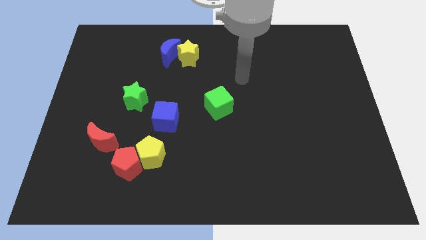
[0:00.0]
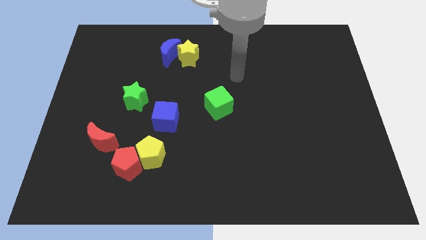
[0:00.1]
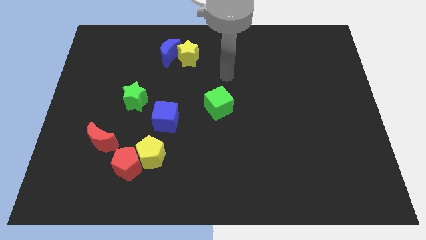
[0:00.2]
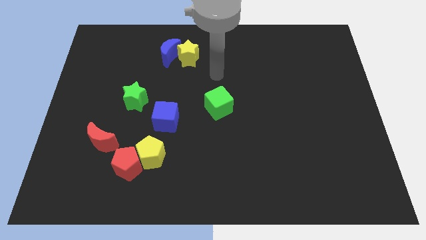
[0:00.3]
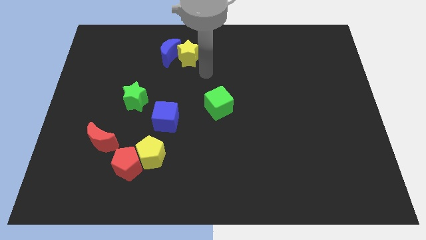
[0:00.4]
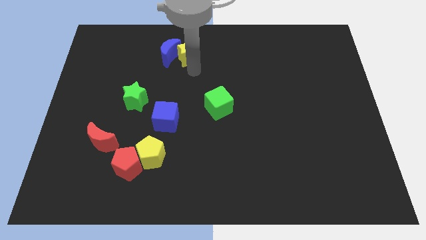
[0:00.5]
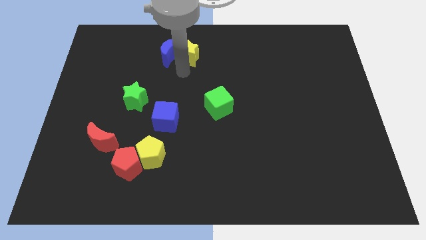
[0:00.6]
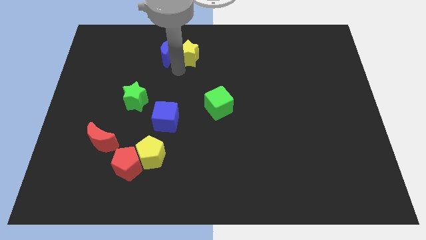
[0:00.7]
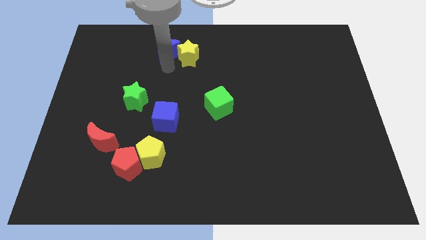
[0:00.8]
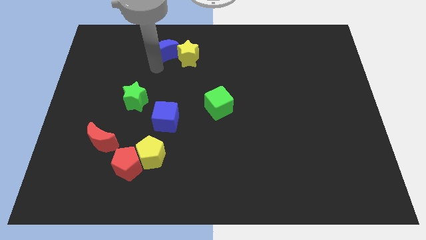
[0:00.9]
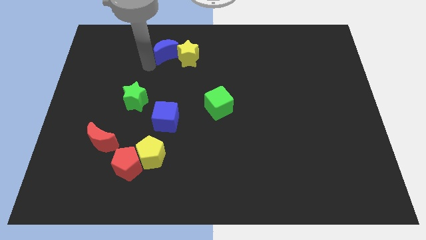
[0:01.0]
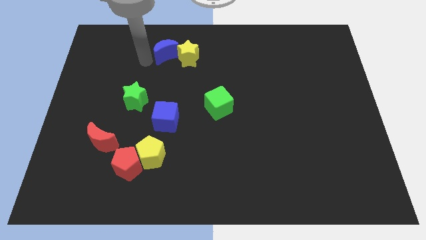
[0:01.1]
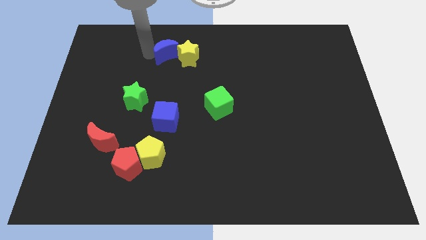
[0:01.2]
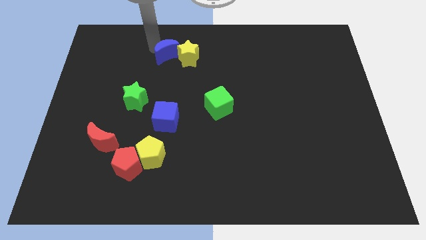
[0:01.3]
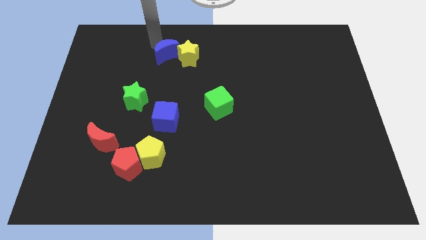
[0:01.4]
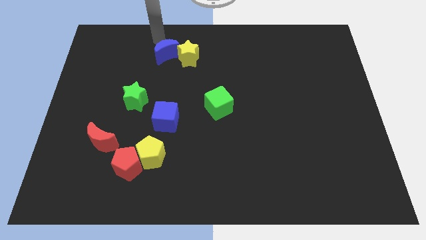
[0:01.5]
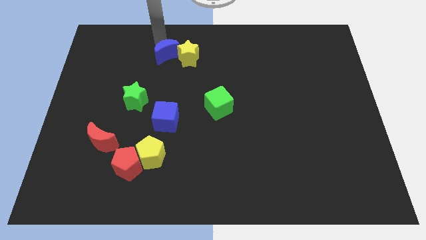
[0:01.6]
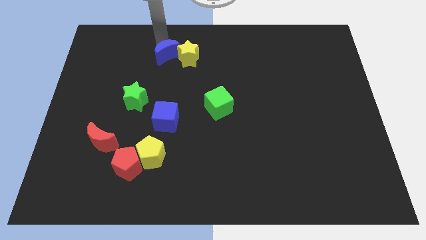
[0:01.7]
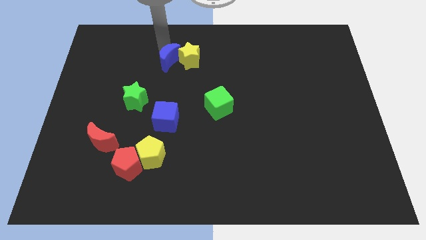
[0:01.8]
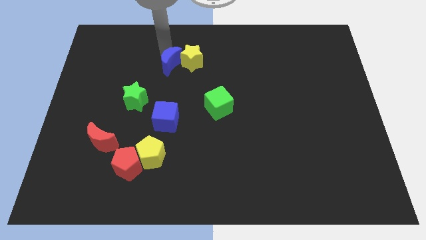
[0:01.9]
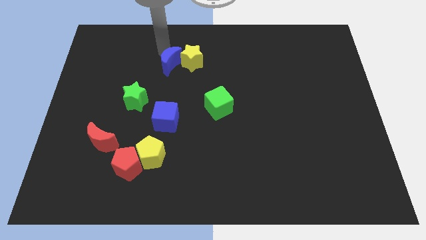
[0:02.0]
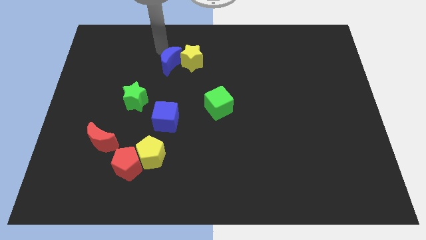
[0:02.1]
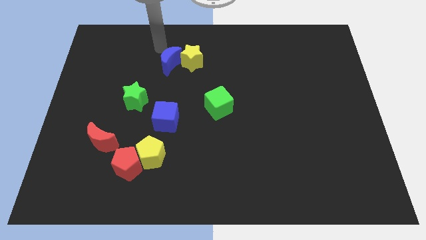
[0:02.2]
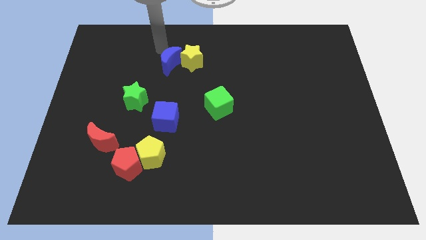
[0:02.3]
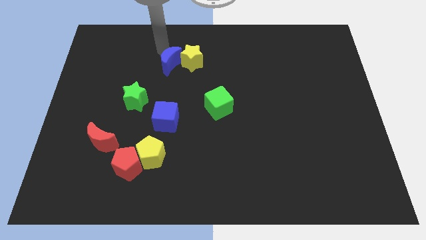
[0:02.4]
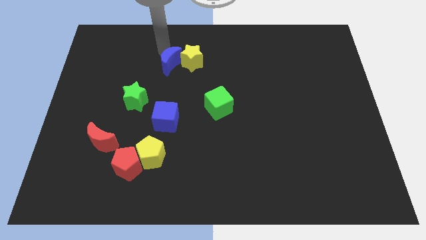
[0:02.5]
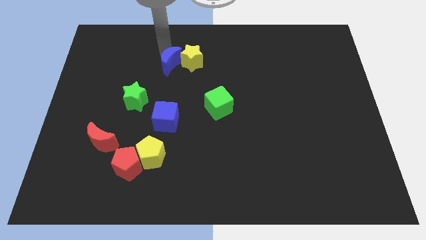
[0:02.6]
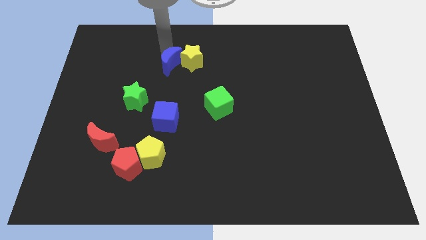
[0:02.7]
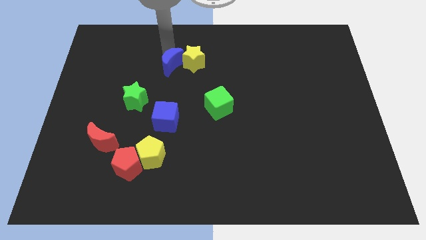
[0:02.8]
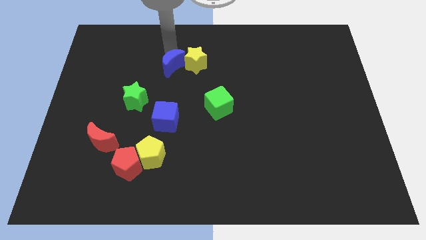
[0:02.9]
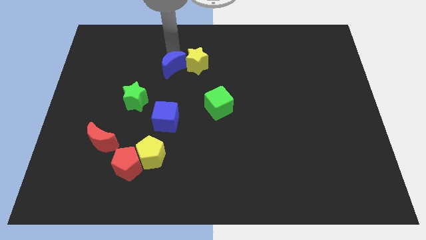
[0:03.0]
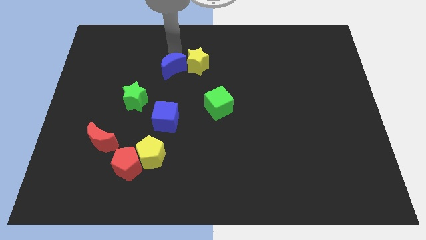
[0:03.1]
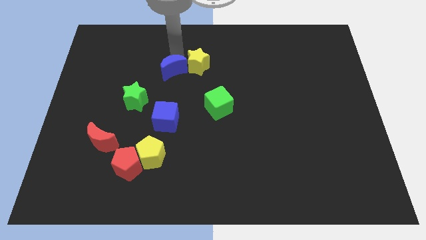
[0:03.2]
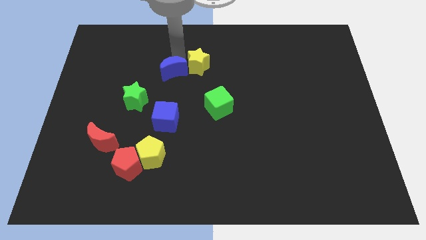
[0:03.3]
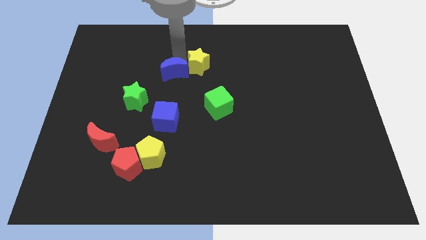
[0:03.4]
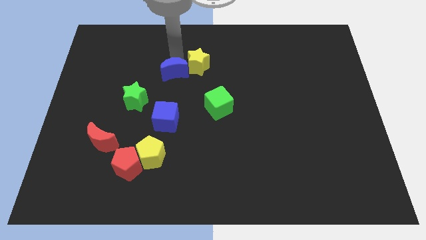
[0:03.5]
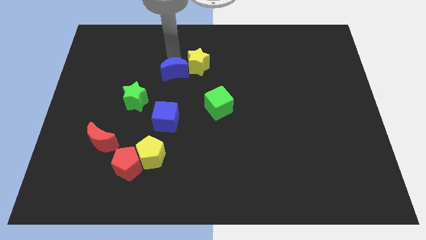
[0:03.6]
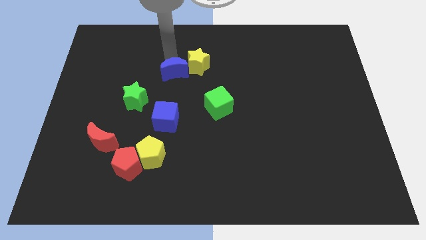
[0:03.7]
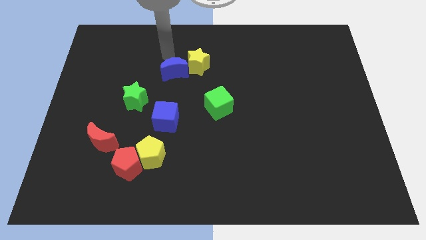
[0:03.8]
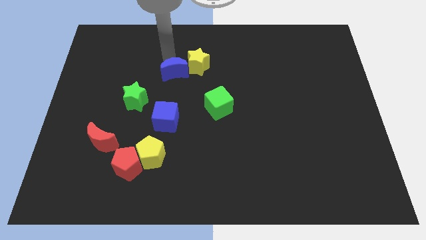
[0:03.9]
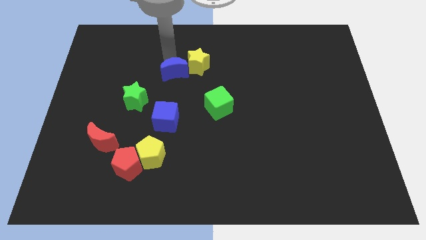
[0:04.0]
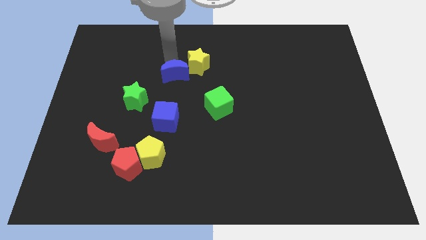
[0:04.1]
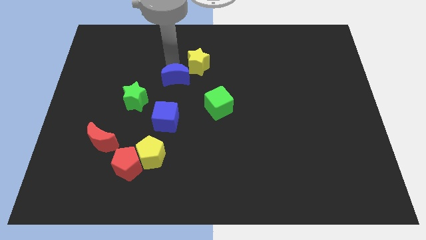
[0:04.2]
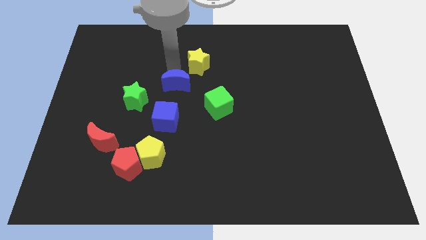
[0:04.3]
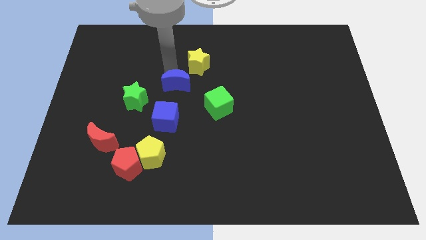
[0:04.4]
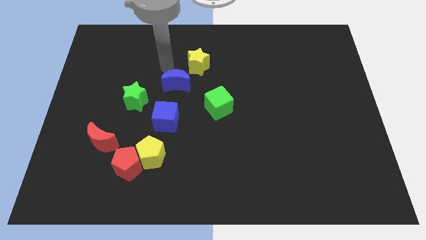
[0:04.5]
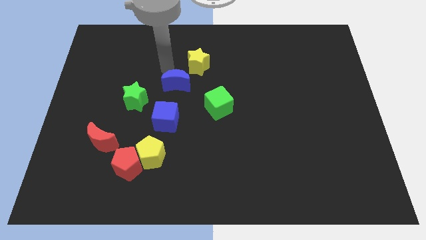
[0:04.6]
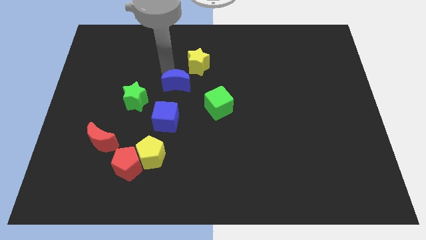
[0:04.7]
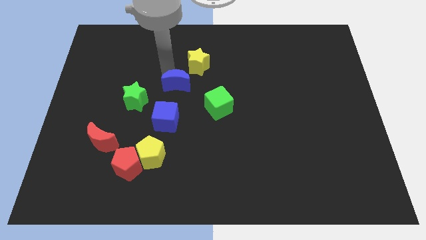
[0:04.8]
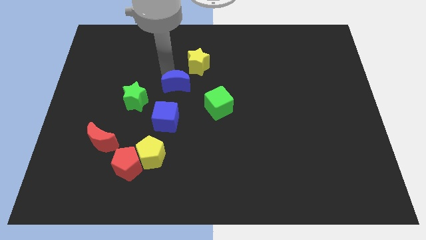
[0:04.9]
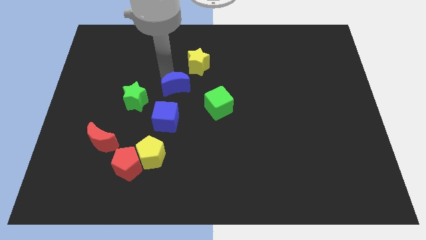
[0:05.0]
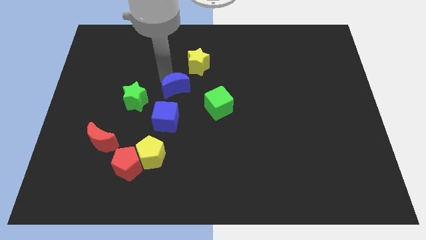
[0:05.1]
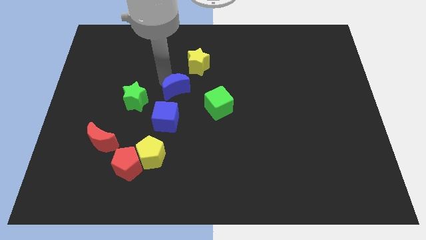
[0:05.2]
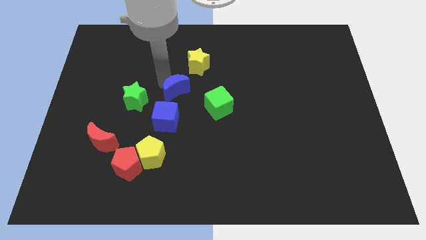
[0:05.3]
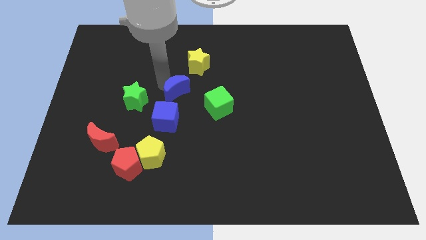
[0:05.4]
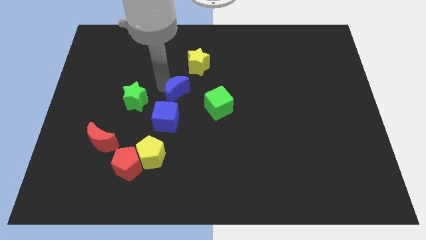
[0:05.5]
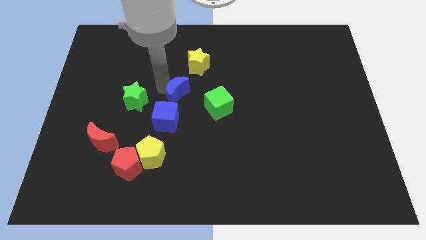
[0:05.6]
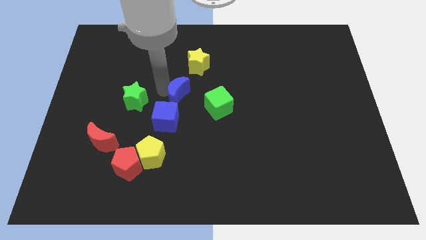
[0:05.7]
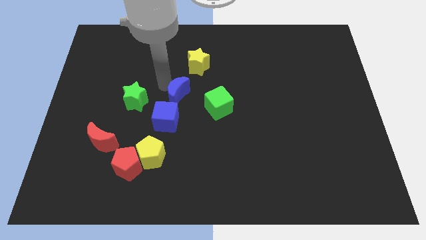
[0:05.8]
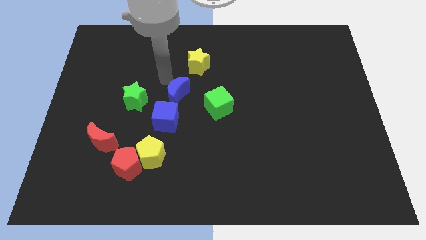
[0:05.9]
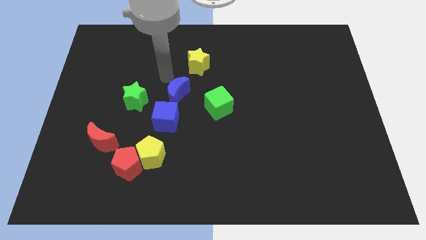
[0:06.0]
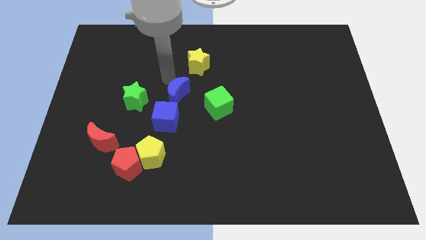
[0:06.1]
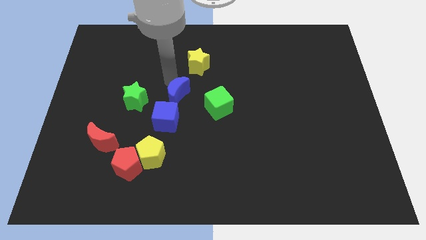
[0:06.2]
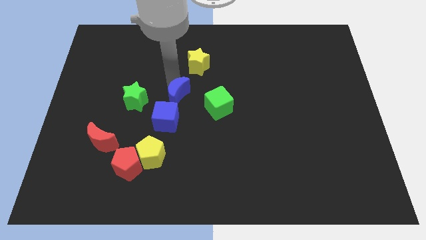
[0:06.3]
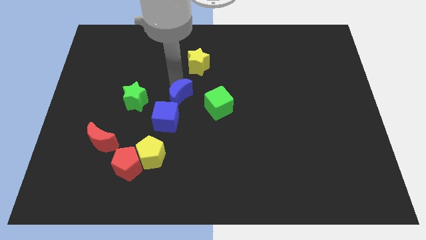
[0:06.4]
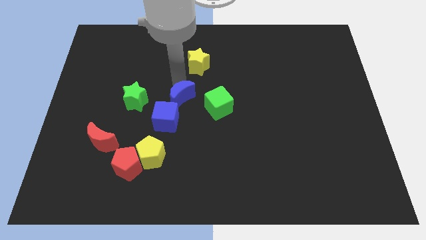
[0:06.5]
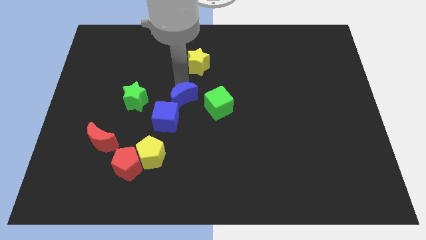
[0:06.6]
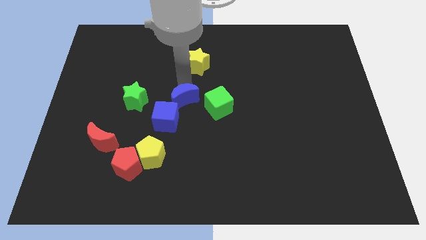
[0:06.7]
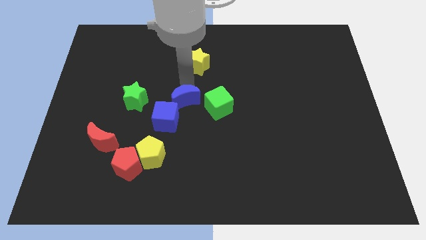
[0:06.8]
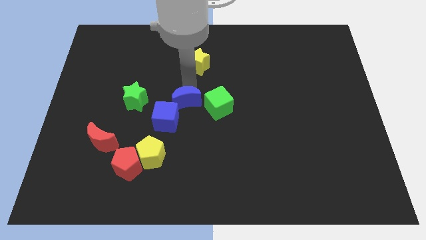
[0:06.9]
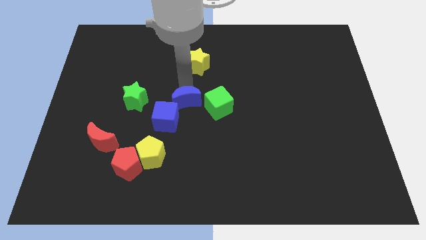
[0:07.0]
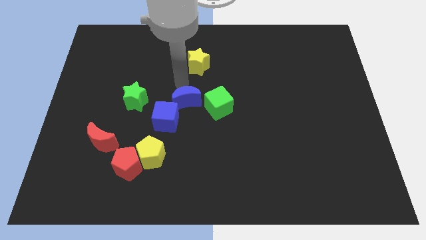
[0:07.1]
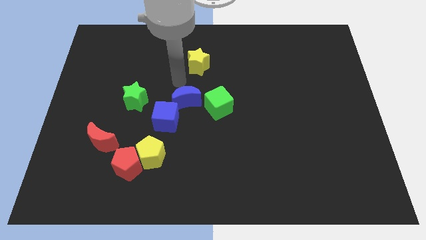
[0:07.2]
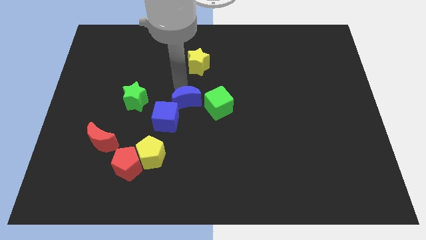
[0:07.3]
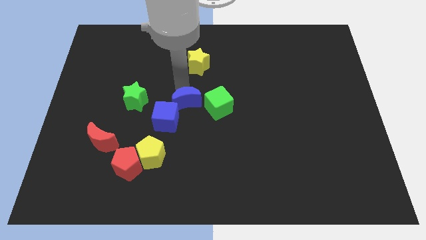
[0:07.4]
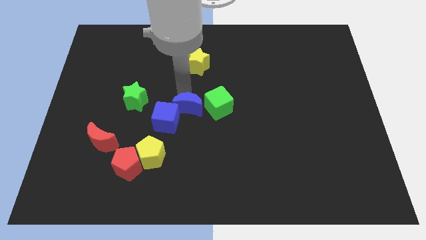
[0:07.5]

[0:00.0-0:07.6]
slide the blue moon to the bottom left of the green cube
